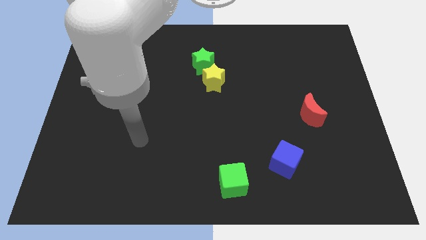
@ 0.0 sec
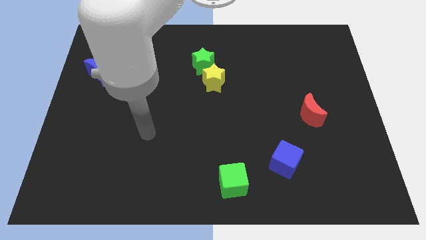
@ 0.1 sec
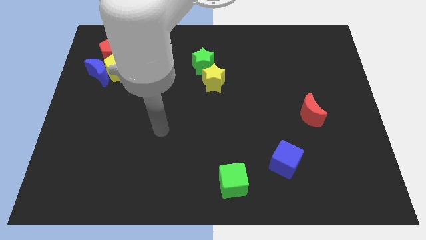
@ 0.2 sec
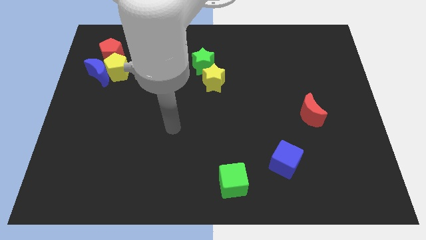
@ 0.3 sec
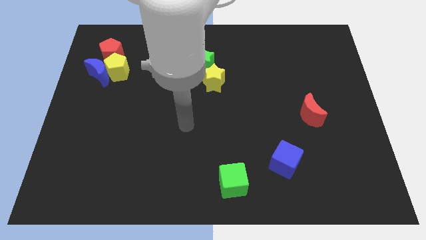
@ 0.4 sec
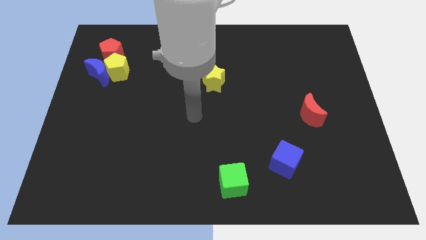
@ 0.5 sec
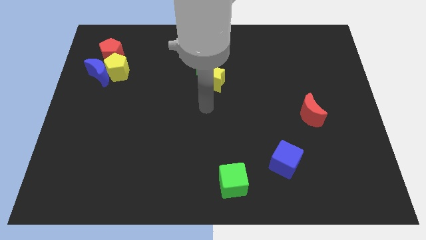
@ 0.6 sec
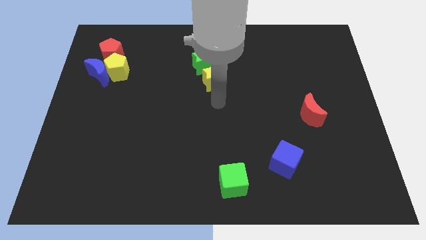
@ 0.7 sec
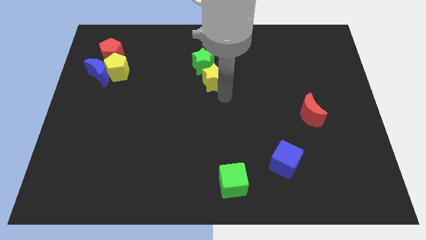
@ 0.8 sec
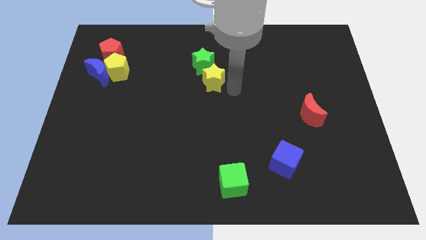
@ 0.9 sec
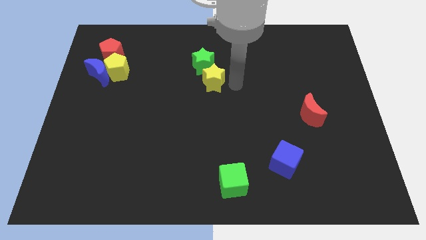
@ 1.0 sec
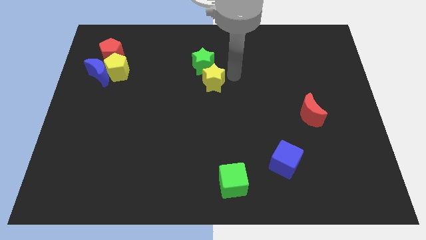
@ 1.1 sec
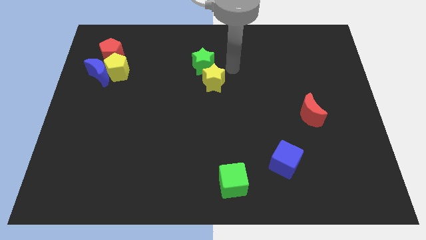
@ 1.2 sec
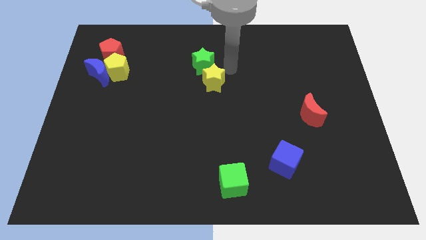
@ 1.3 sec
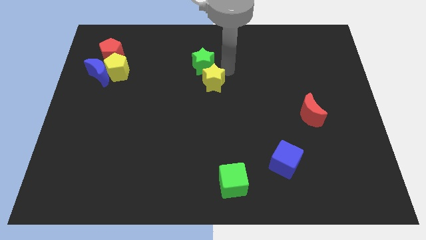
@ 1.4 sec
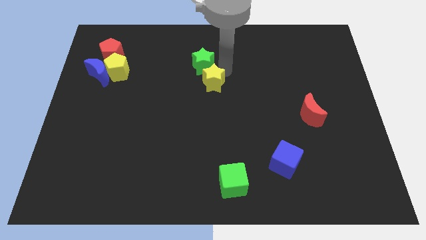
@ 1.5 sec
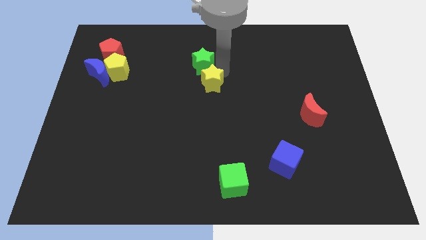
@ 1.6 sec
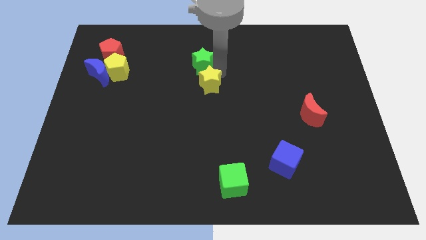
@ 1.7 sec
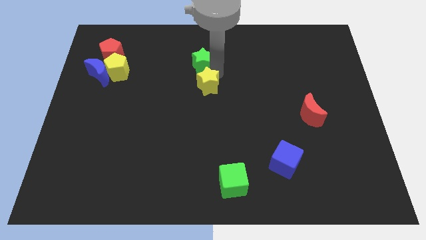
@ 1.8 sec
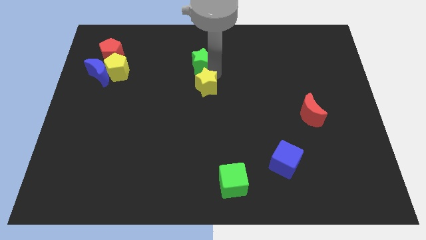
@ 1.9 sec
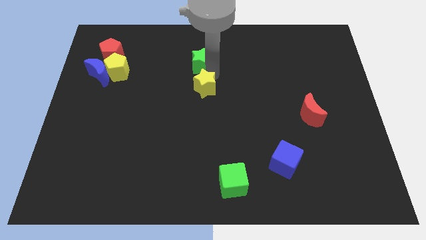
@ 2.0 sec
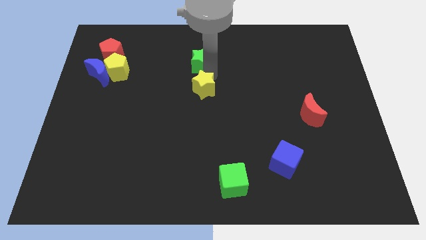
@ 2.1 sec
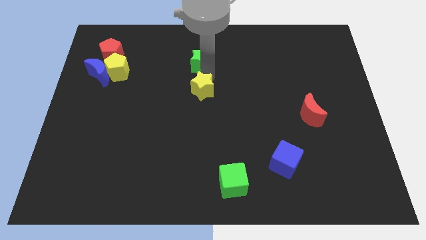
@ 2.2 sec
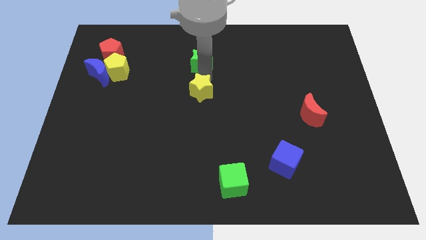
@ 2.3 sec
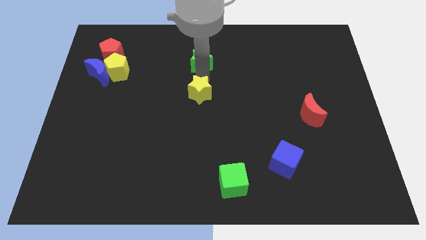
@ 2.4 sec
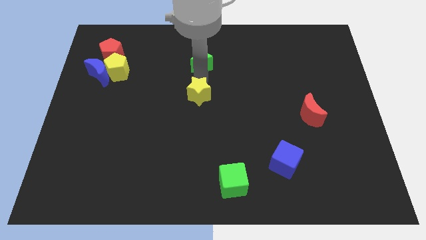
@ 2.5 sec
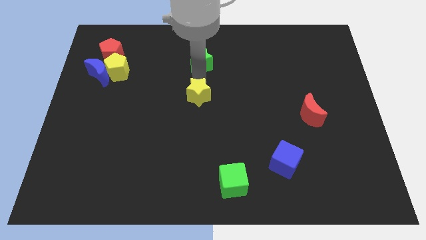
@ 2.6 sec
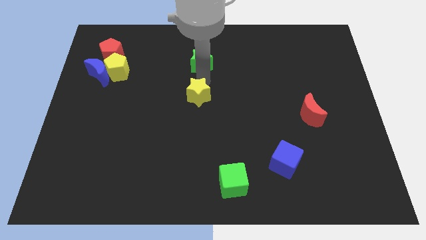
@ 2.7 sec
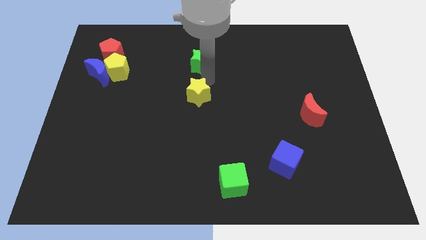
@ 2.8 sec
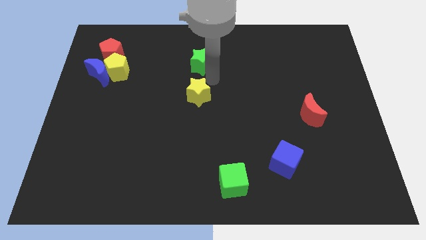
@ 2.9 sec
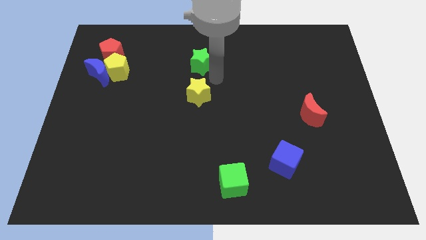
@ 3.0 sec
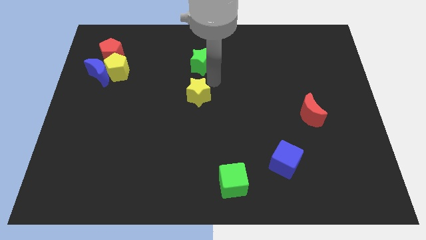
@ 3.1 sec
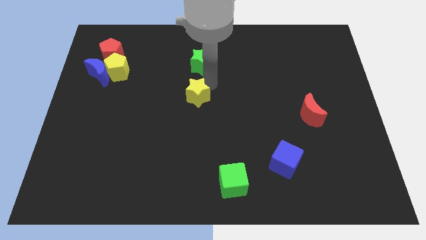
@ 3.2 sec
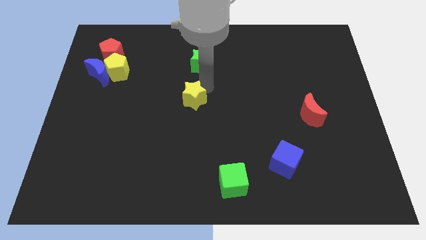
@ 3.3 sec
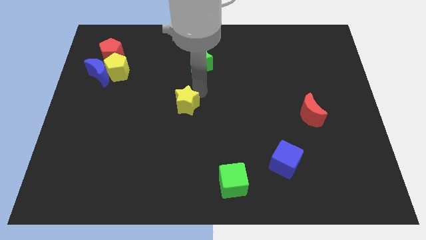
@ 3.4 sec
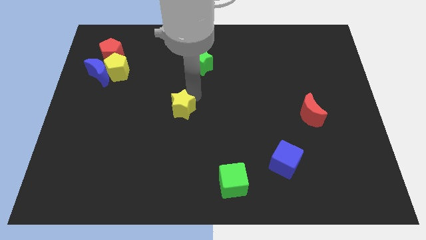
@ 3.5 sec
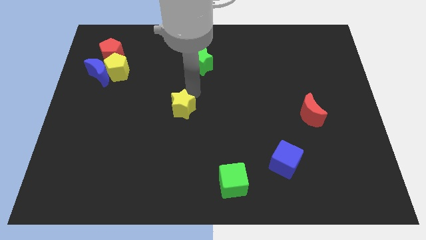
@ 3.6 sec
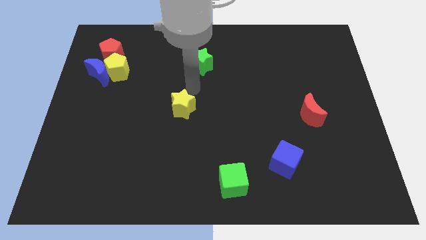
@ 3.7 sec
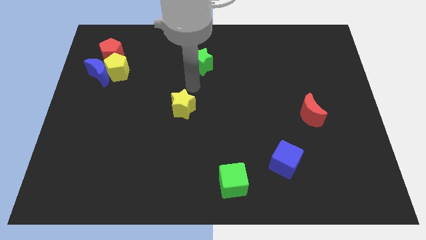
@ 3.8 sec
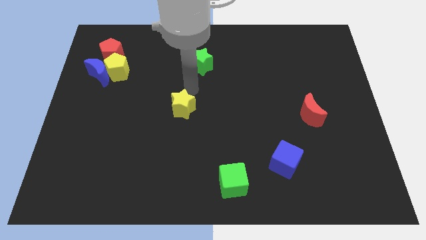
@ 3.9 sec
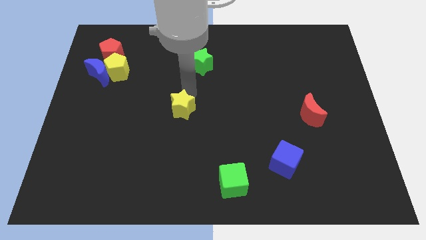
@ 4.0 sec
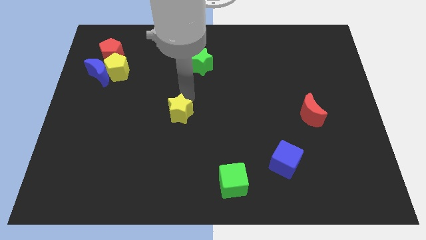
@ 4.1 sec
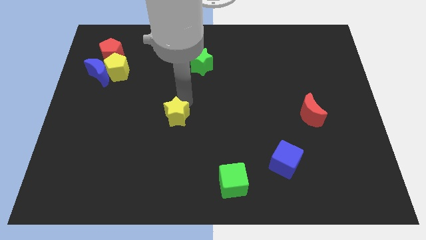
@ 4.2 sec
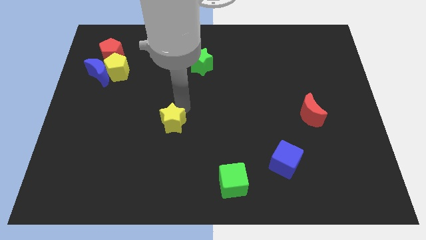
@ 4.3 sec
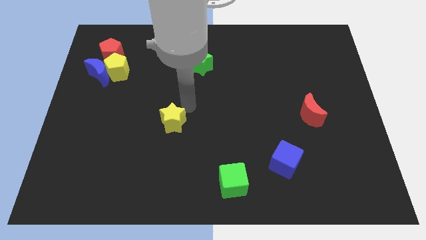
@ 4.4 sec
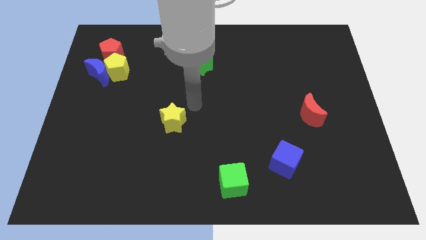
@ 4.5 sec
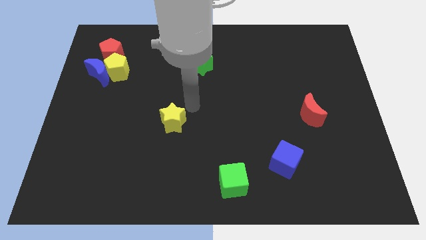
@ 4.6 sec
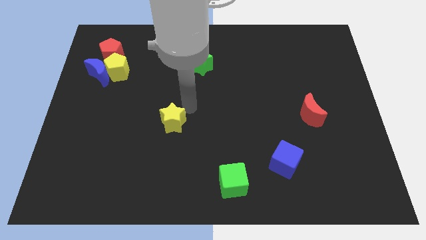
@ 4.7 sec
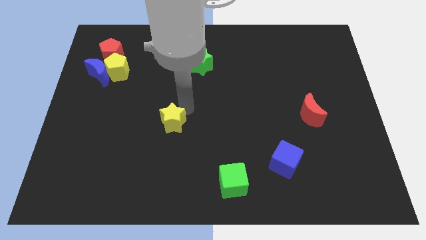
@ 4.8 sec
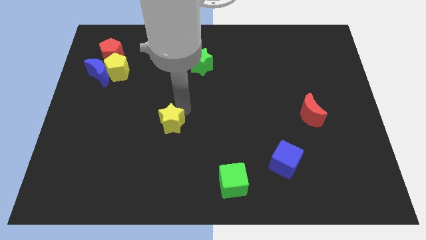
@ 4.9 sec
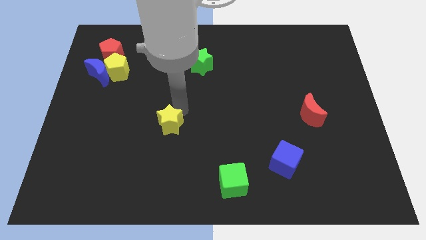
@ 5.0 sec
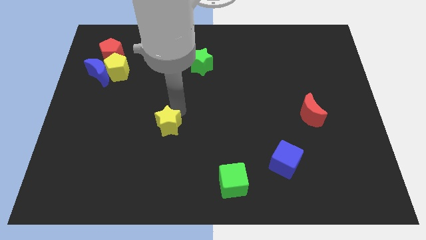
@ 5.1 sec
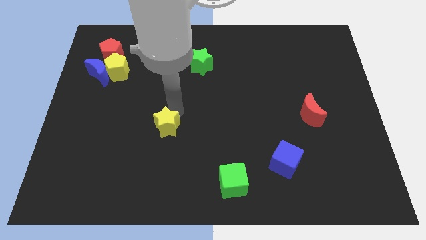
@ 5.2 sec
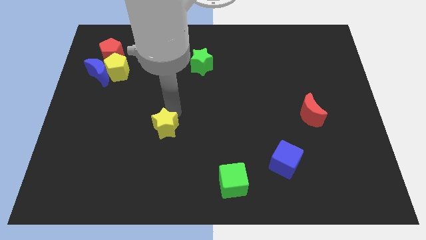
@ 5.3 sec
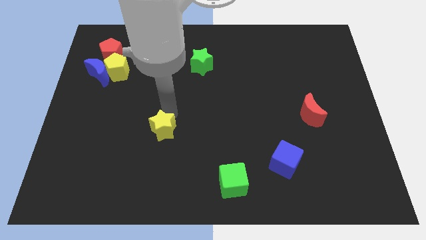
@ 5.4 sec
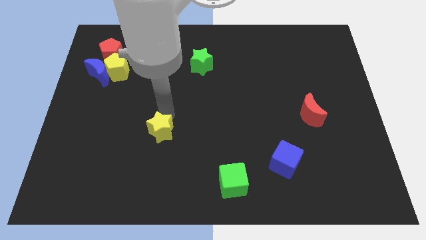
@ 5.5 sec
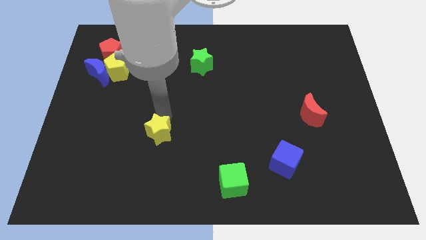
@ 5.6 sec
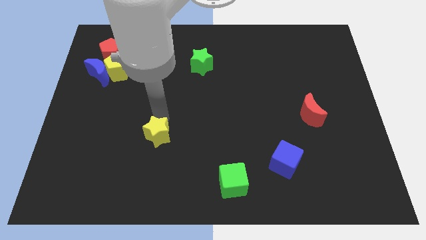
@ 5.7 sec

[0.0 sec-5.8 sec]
slide the yellow star down and to the left

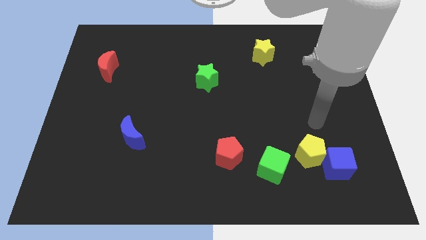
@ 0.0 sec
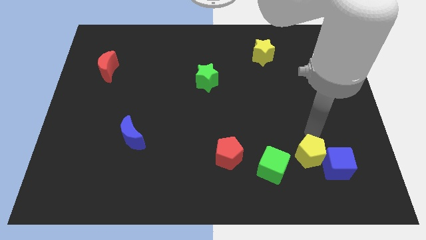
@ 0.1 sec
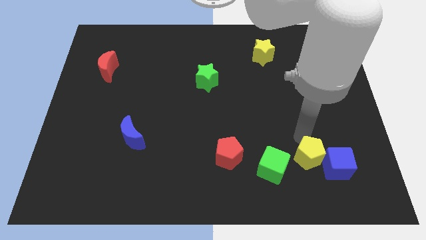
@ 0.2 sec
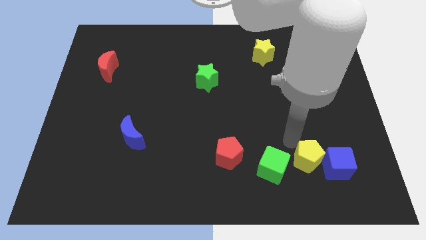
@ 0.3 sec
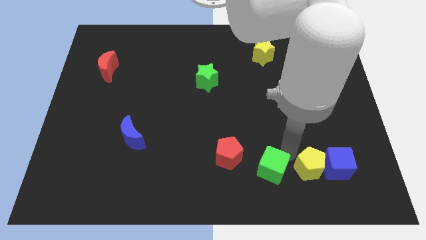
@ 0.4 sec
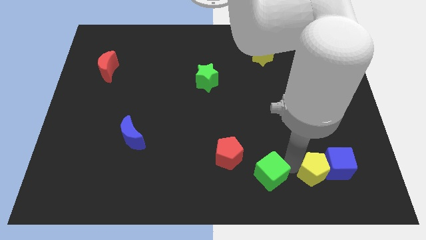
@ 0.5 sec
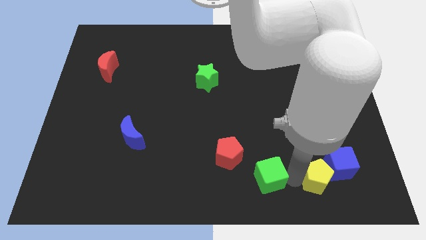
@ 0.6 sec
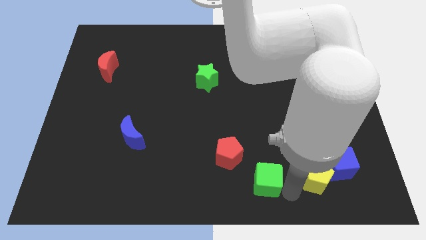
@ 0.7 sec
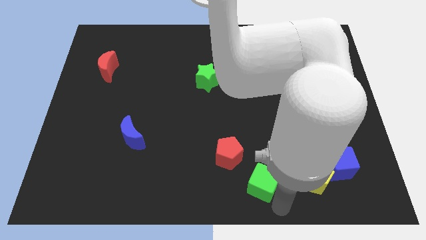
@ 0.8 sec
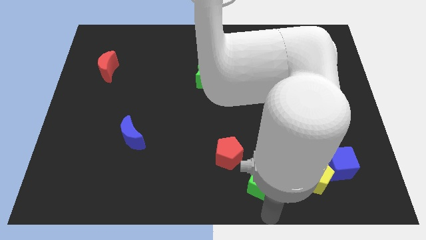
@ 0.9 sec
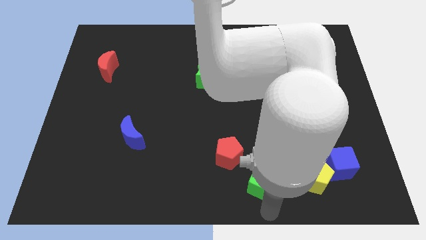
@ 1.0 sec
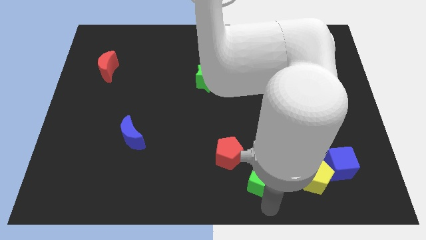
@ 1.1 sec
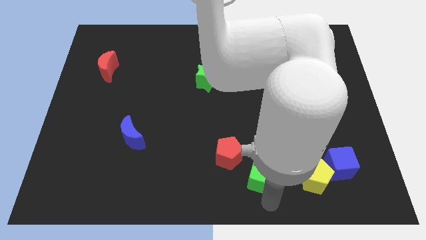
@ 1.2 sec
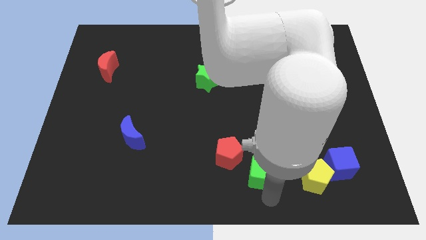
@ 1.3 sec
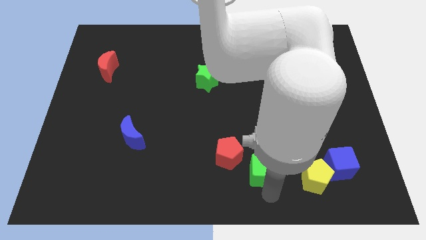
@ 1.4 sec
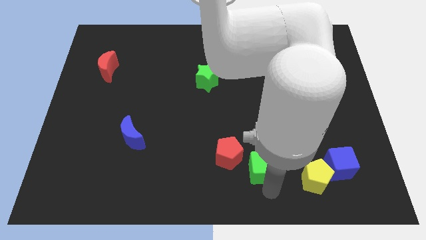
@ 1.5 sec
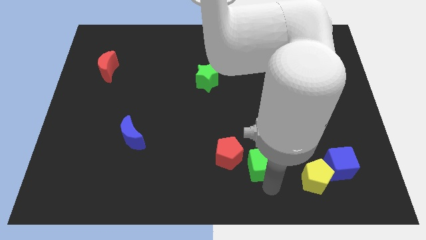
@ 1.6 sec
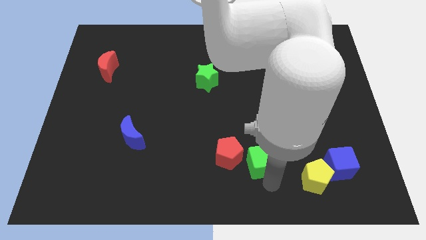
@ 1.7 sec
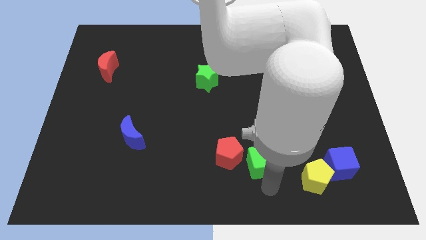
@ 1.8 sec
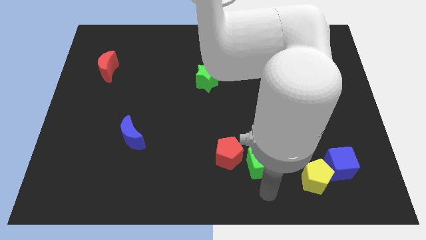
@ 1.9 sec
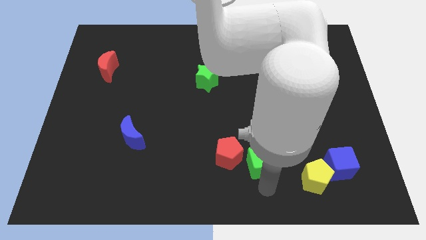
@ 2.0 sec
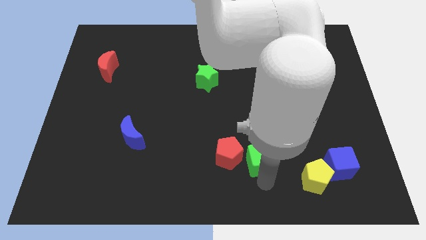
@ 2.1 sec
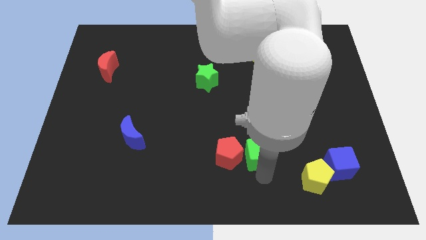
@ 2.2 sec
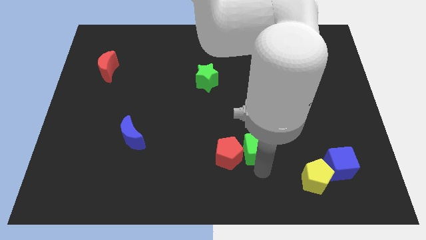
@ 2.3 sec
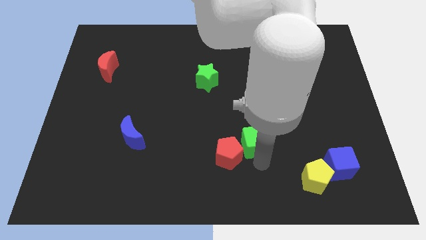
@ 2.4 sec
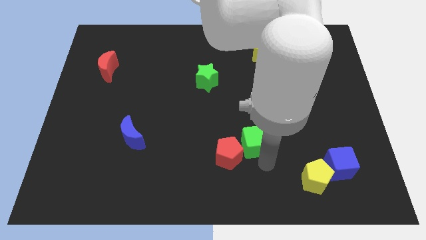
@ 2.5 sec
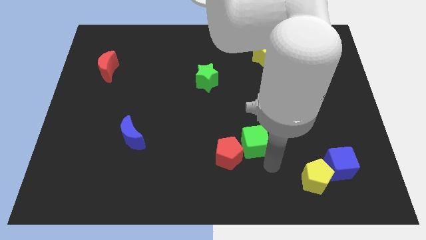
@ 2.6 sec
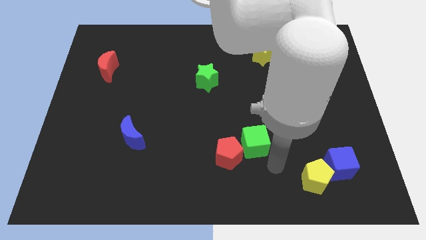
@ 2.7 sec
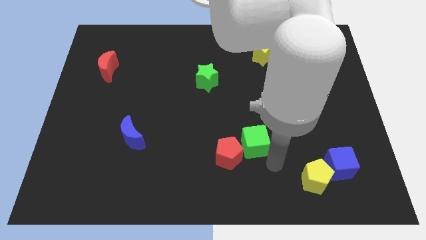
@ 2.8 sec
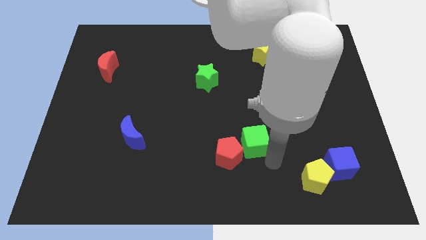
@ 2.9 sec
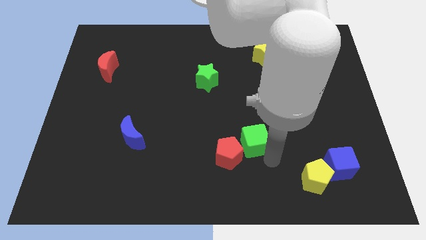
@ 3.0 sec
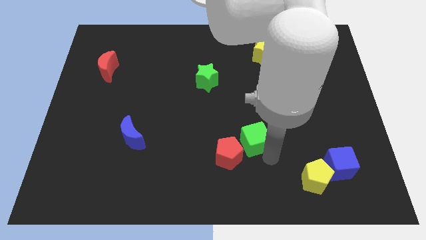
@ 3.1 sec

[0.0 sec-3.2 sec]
move the green cube upwards and to the left a little bit
